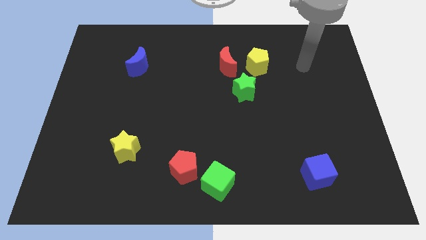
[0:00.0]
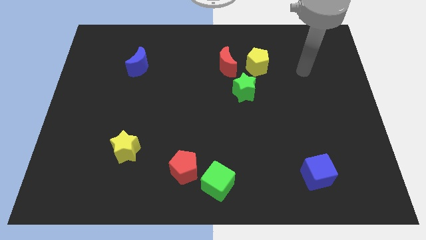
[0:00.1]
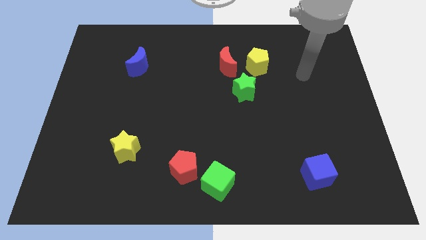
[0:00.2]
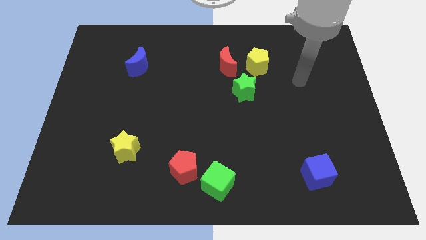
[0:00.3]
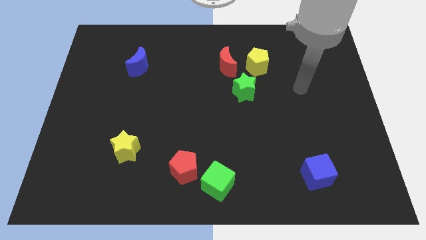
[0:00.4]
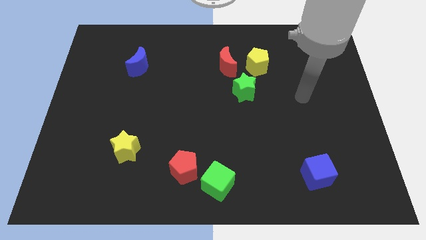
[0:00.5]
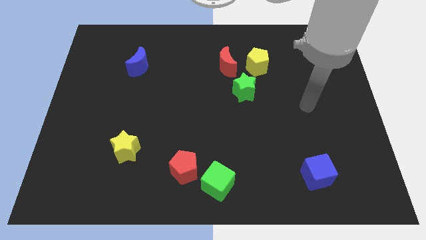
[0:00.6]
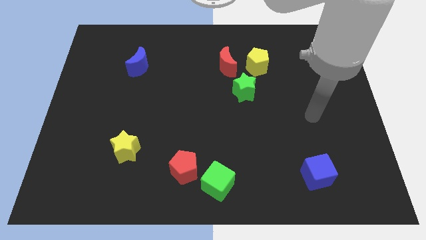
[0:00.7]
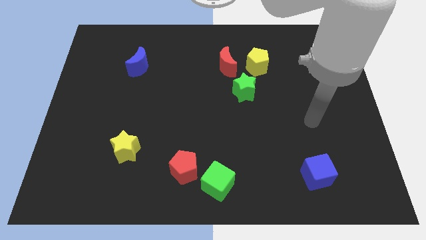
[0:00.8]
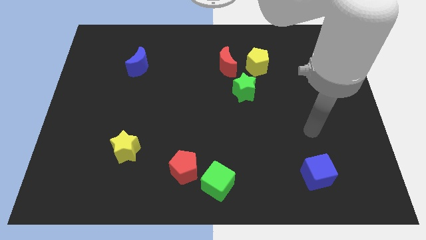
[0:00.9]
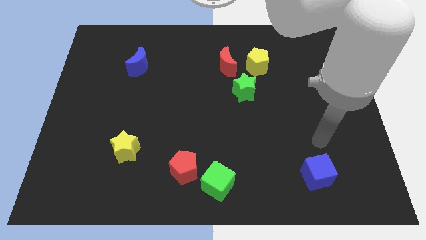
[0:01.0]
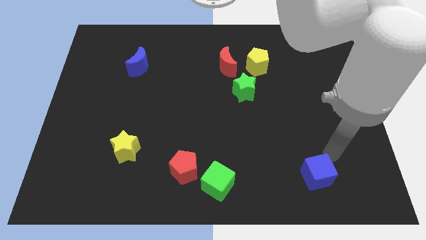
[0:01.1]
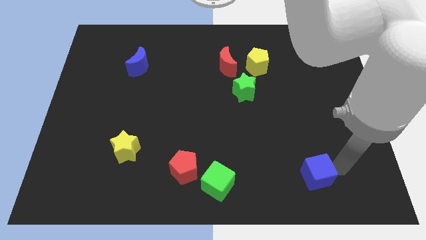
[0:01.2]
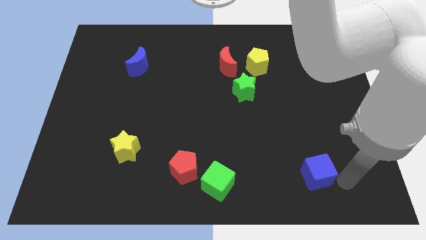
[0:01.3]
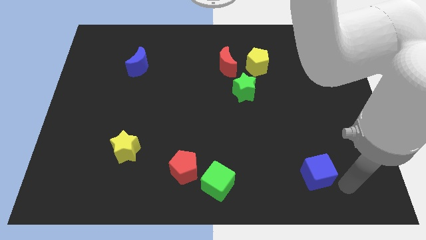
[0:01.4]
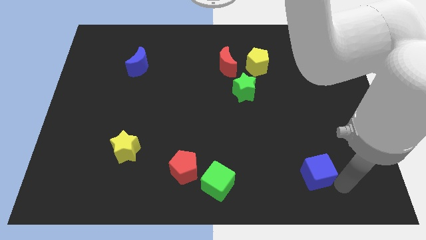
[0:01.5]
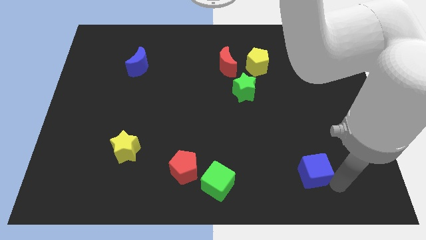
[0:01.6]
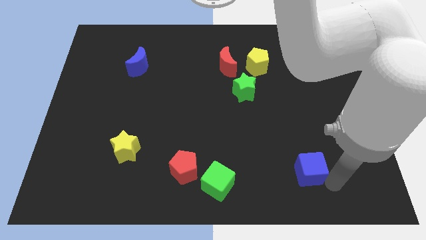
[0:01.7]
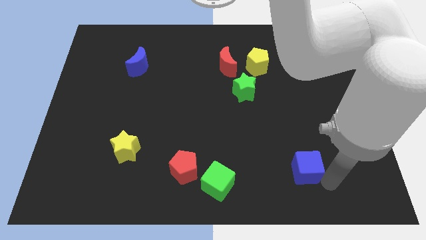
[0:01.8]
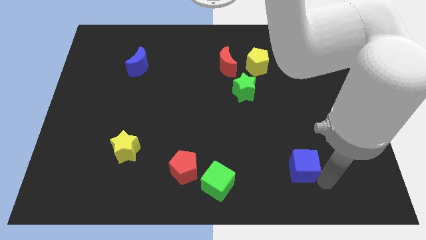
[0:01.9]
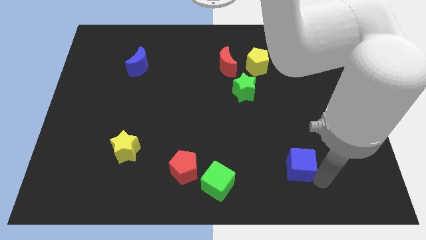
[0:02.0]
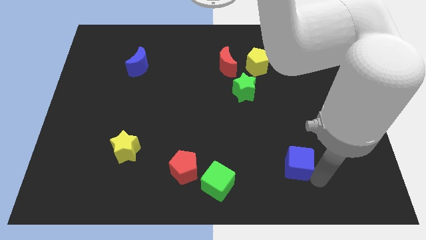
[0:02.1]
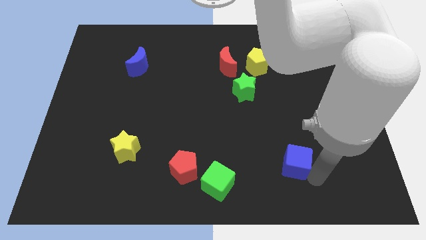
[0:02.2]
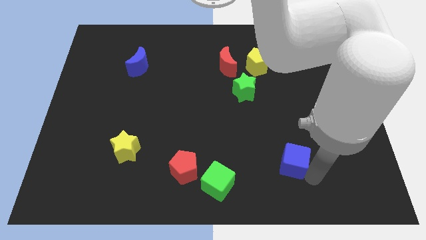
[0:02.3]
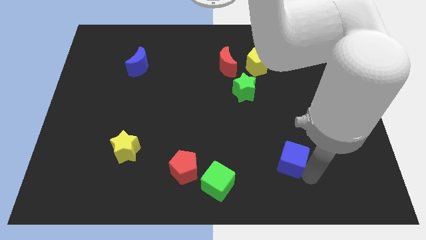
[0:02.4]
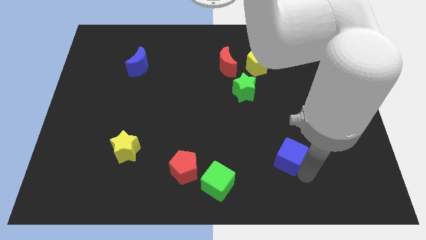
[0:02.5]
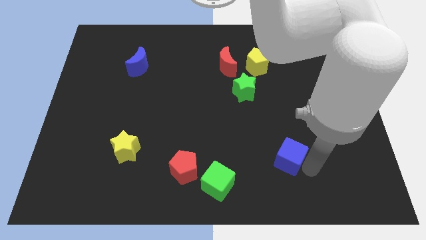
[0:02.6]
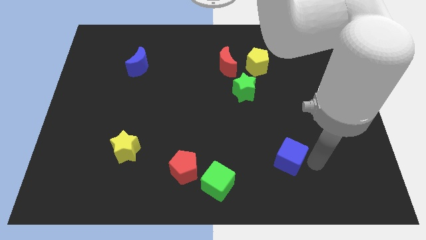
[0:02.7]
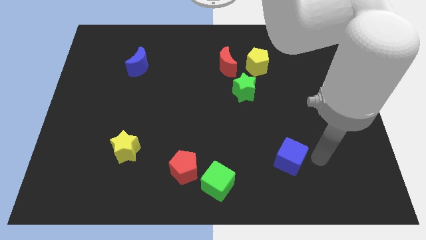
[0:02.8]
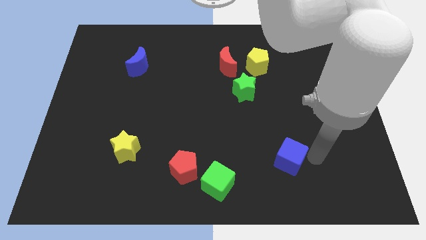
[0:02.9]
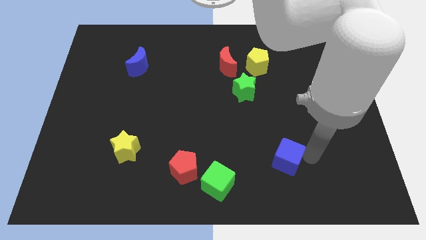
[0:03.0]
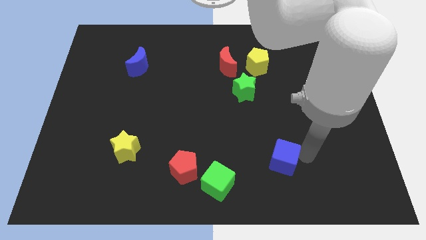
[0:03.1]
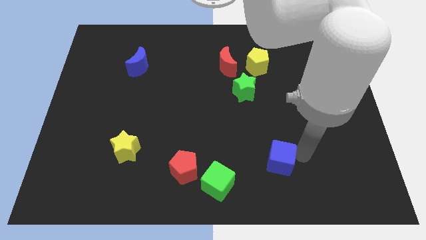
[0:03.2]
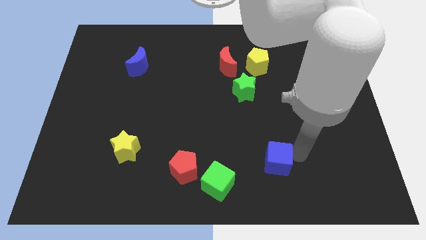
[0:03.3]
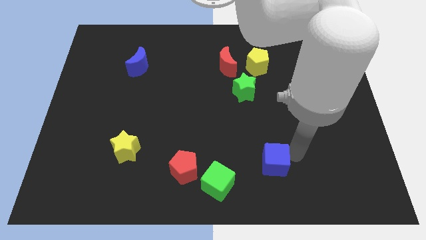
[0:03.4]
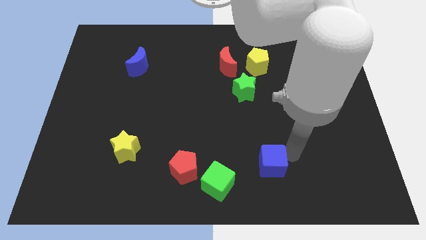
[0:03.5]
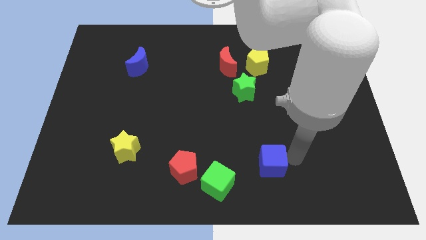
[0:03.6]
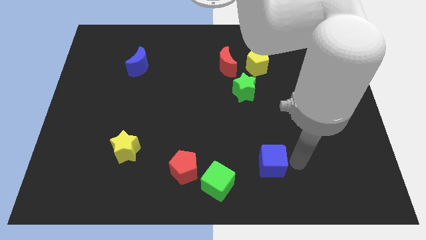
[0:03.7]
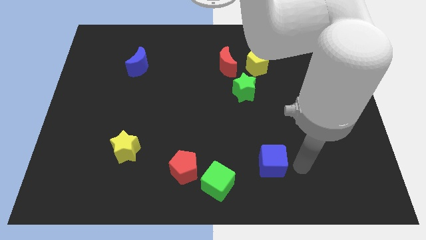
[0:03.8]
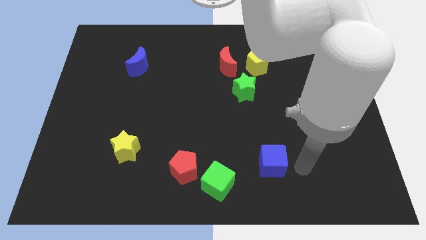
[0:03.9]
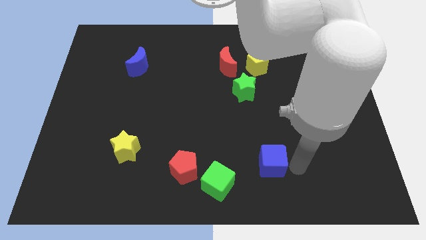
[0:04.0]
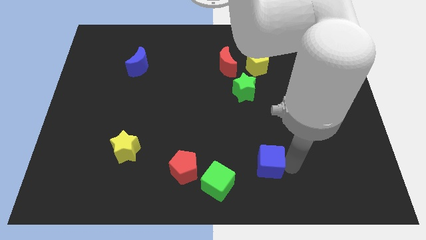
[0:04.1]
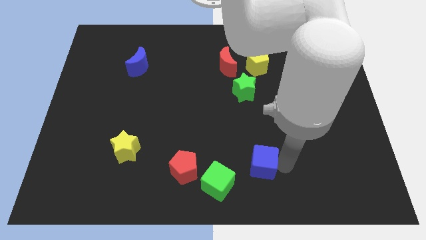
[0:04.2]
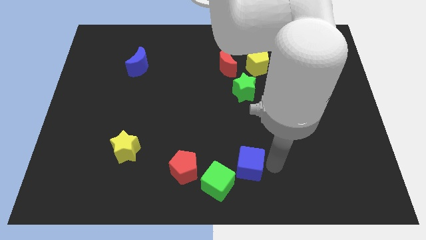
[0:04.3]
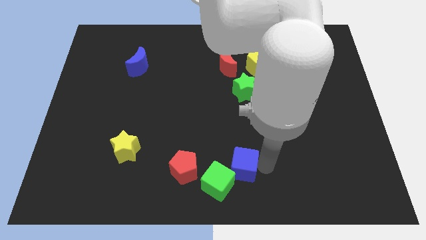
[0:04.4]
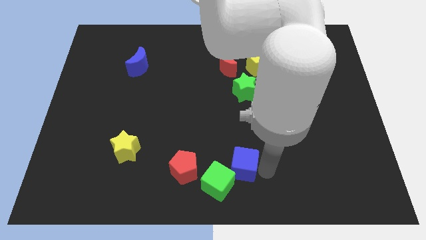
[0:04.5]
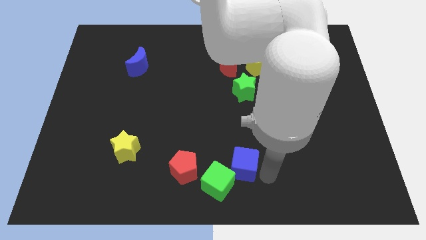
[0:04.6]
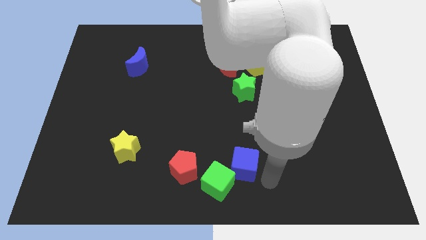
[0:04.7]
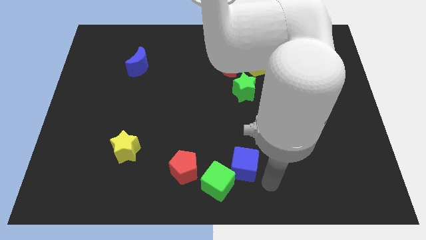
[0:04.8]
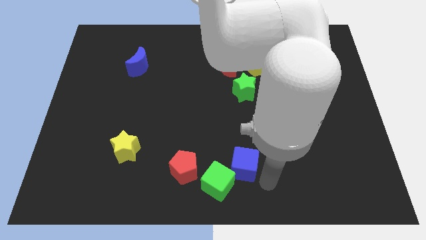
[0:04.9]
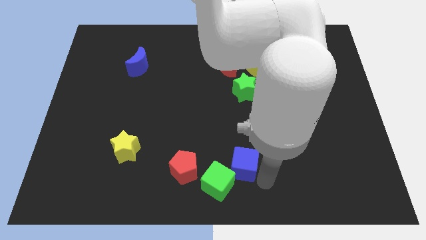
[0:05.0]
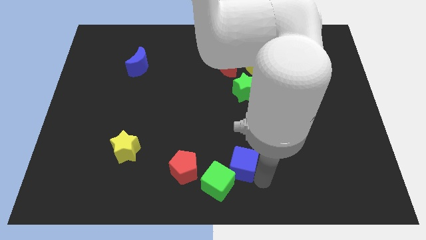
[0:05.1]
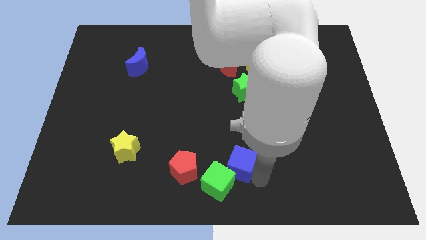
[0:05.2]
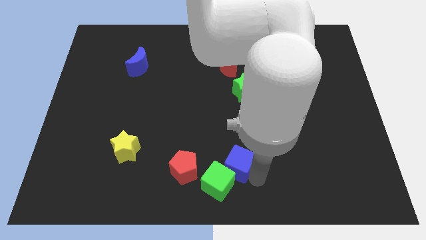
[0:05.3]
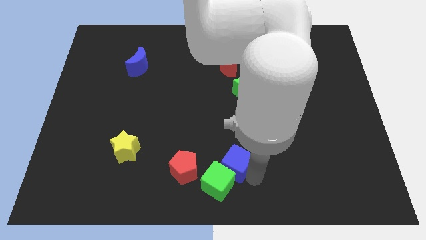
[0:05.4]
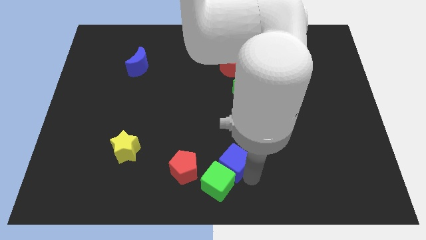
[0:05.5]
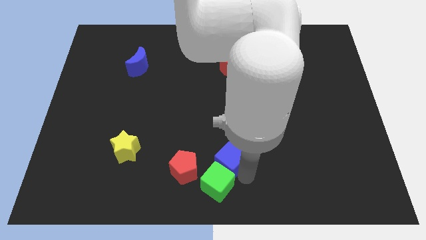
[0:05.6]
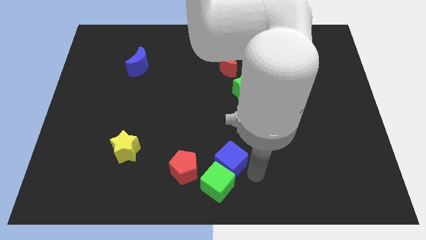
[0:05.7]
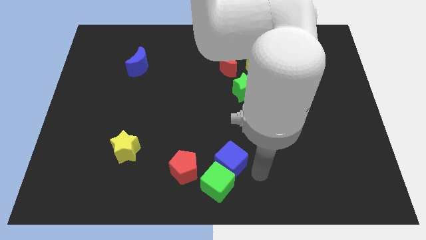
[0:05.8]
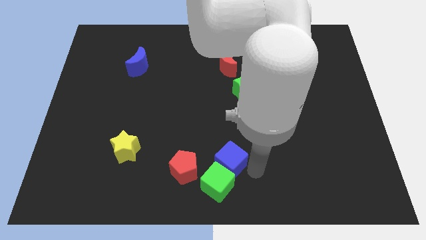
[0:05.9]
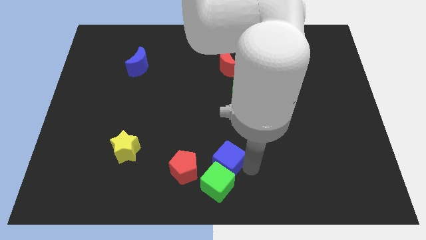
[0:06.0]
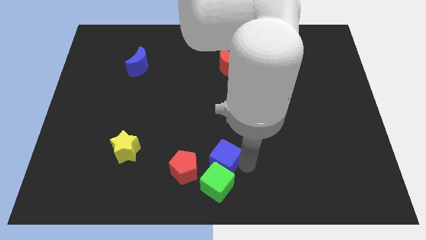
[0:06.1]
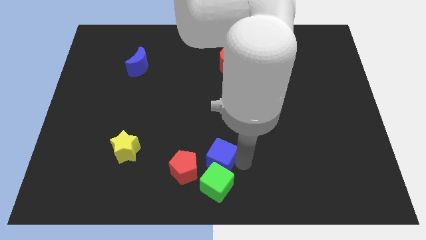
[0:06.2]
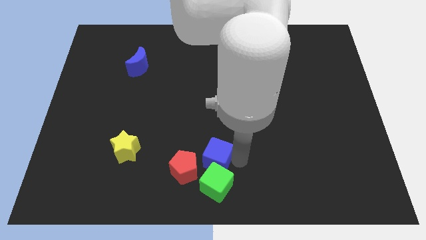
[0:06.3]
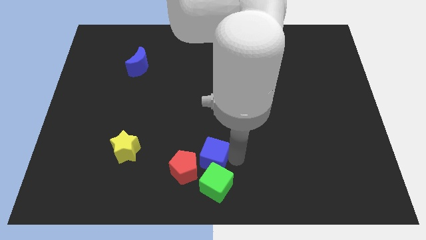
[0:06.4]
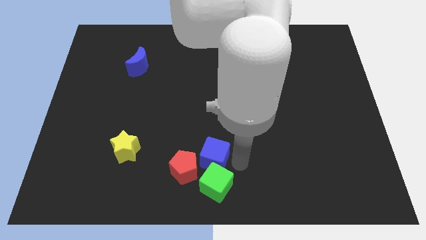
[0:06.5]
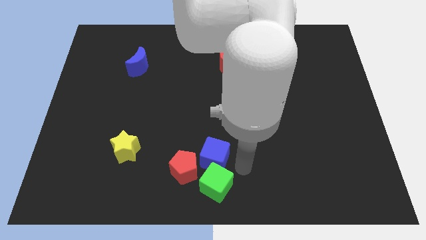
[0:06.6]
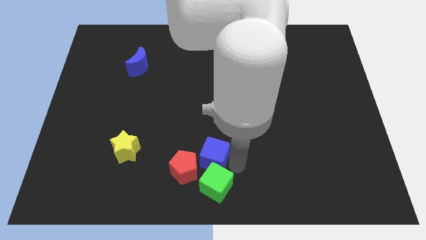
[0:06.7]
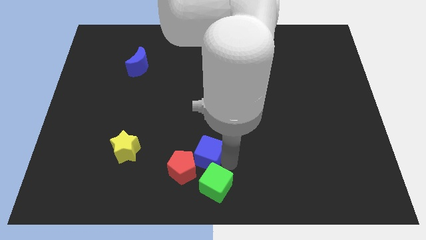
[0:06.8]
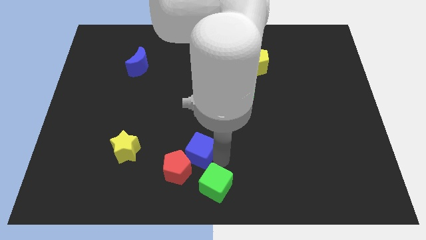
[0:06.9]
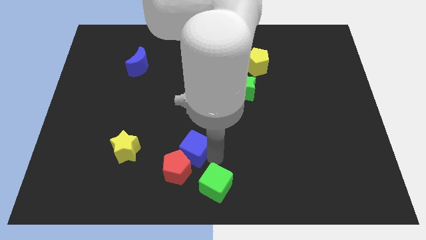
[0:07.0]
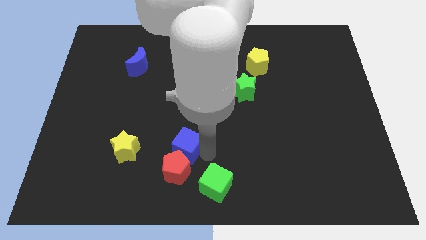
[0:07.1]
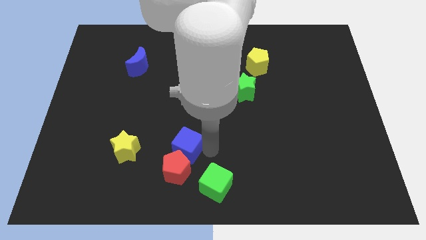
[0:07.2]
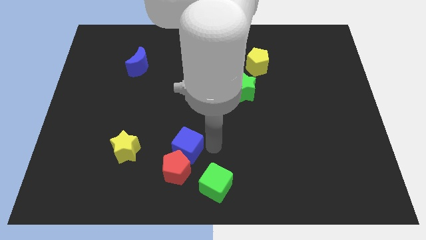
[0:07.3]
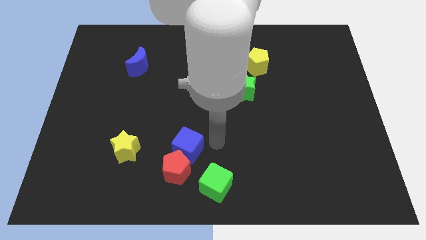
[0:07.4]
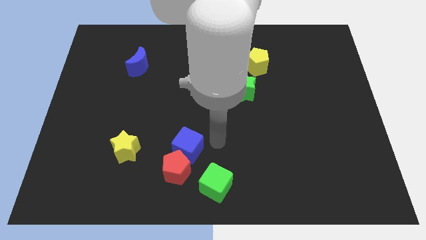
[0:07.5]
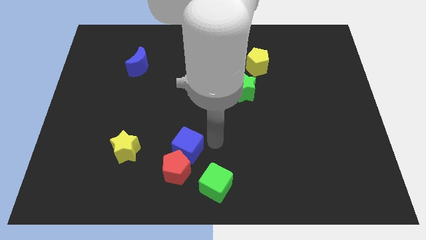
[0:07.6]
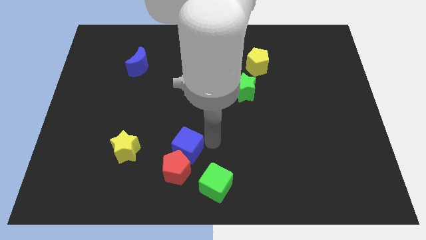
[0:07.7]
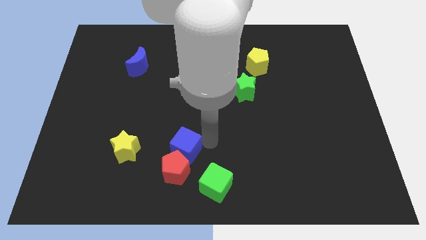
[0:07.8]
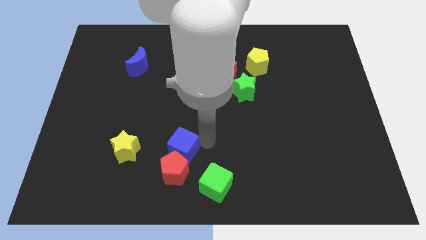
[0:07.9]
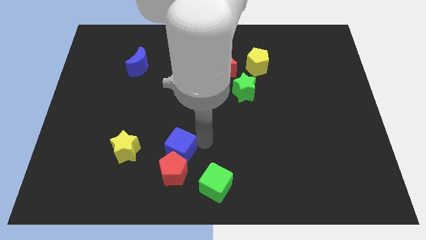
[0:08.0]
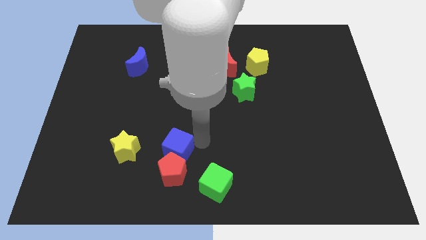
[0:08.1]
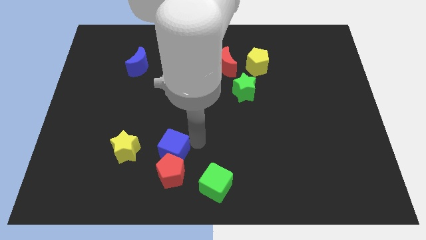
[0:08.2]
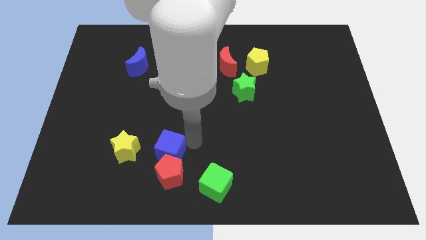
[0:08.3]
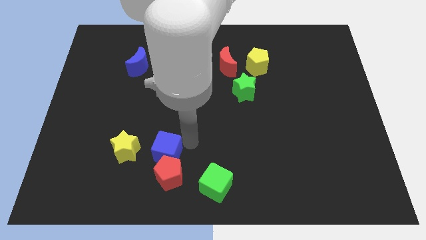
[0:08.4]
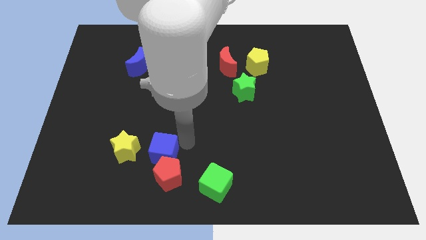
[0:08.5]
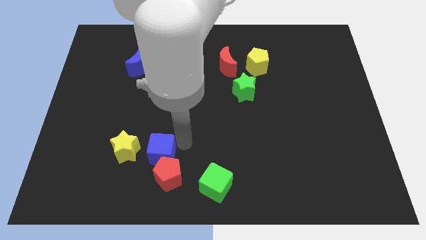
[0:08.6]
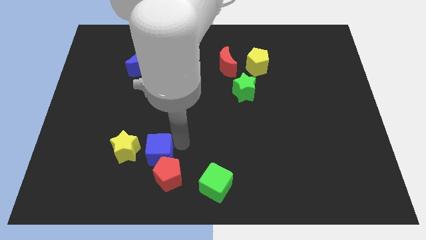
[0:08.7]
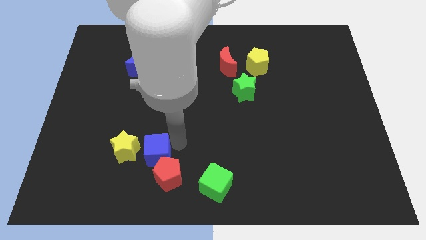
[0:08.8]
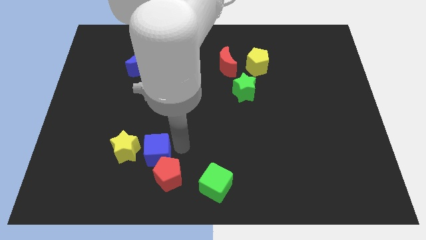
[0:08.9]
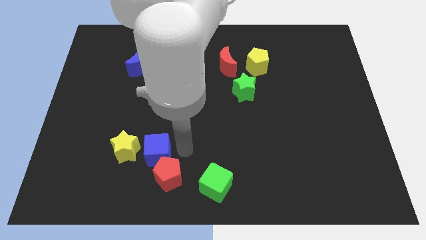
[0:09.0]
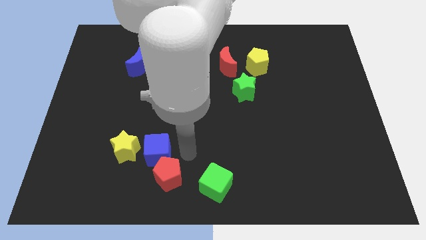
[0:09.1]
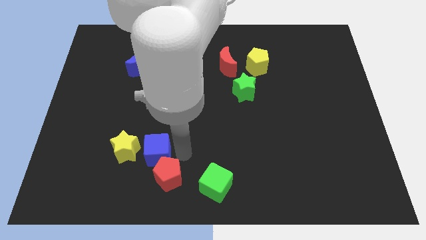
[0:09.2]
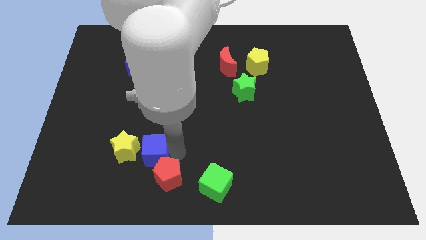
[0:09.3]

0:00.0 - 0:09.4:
push the blue cube close to the yellow star
